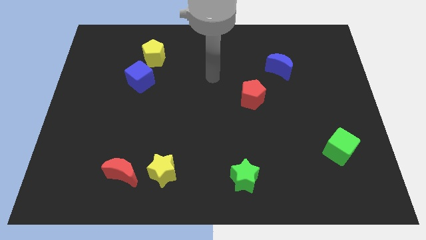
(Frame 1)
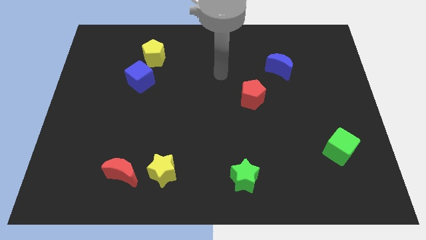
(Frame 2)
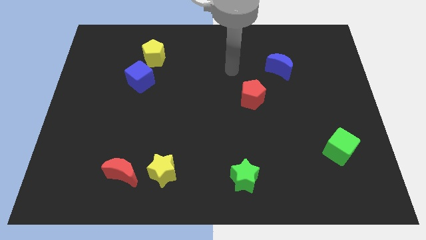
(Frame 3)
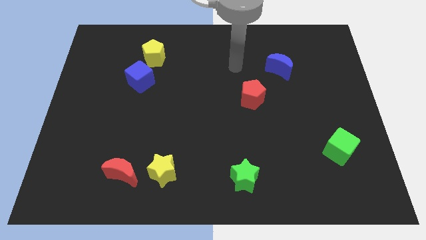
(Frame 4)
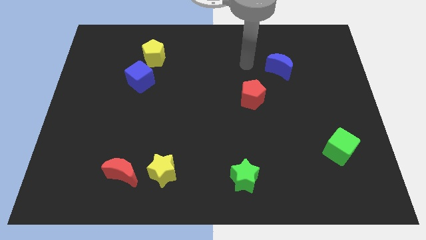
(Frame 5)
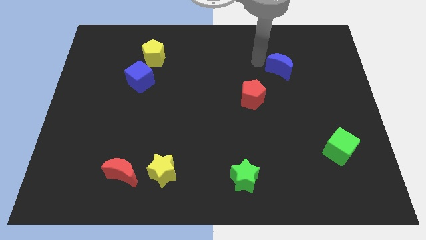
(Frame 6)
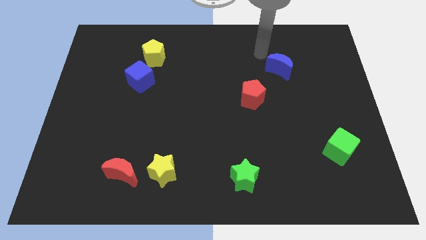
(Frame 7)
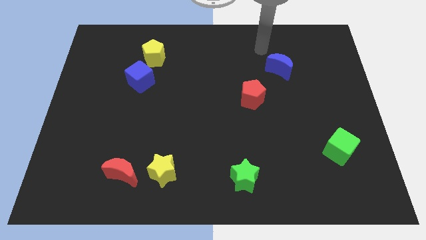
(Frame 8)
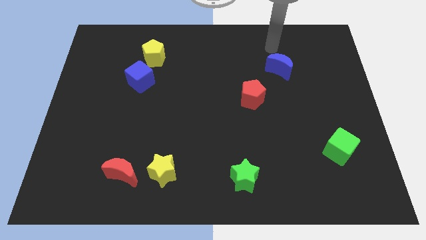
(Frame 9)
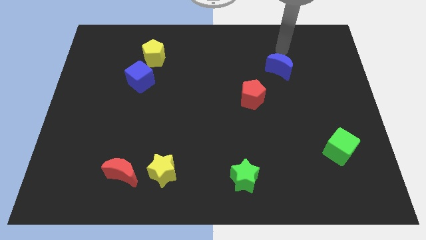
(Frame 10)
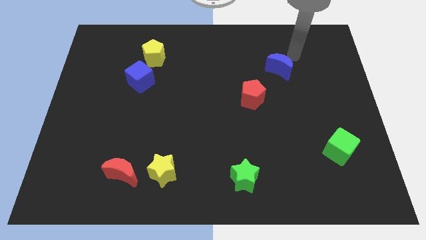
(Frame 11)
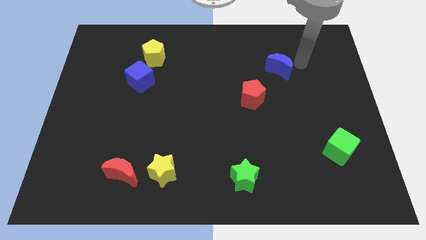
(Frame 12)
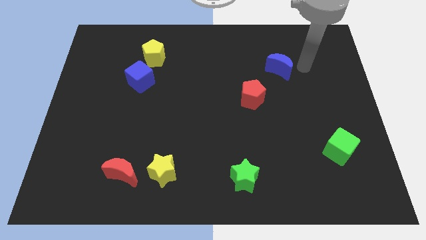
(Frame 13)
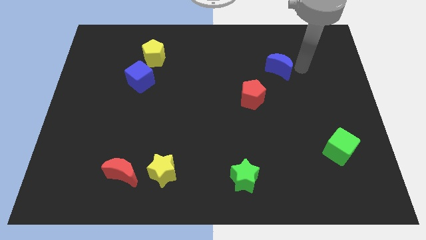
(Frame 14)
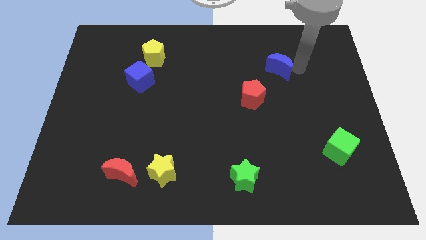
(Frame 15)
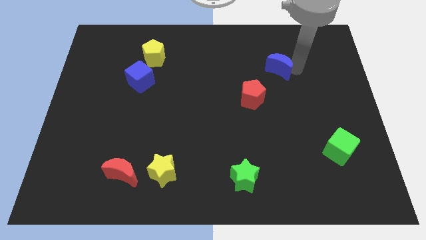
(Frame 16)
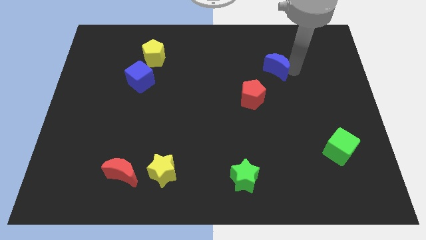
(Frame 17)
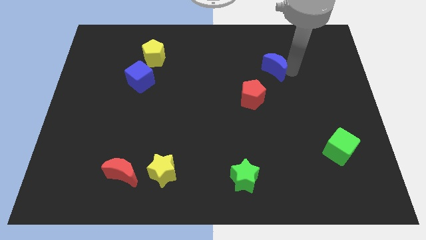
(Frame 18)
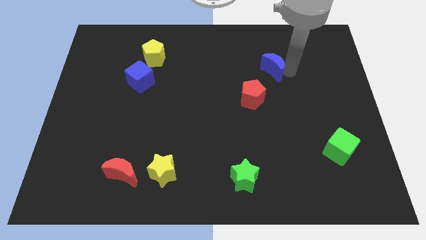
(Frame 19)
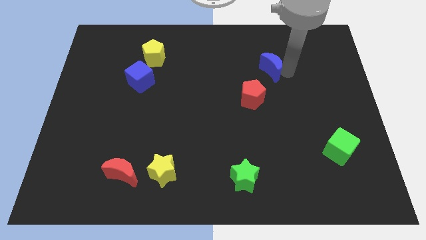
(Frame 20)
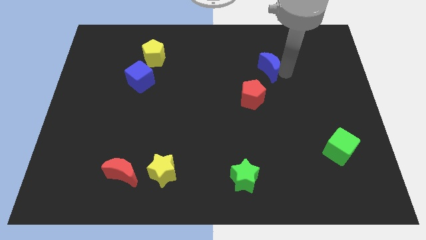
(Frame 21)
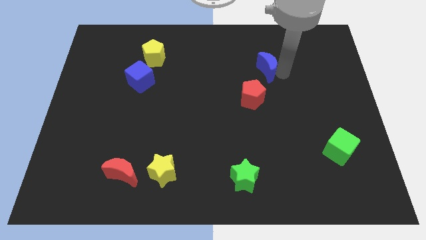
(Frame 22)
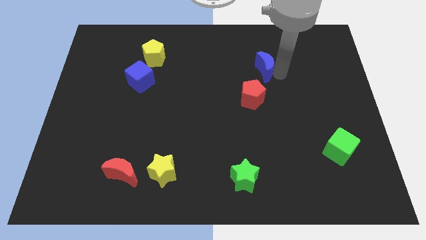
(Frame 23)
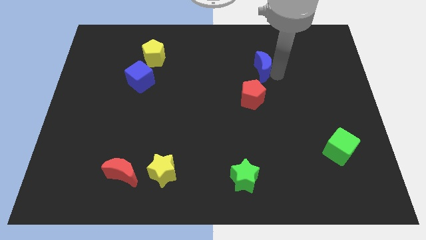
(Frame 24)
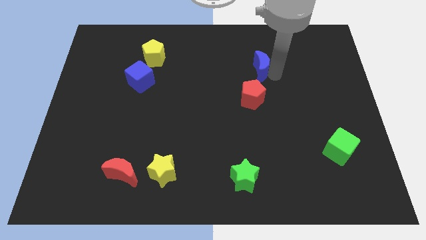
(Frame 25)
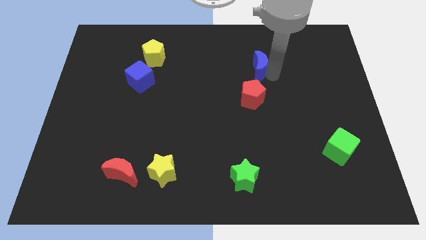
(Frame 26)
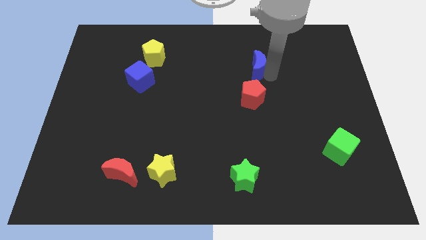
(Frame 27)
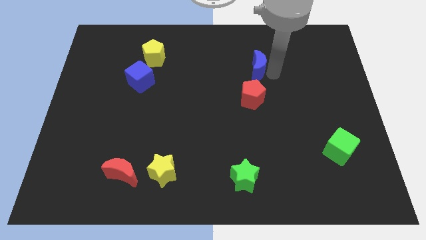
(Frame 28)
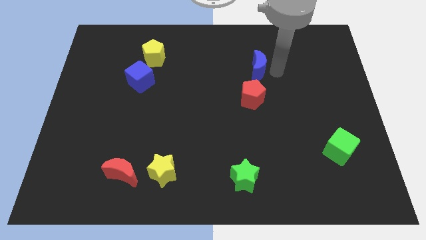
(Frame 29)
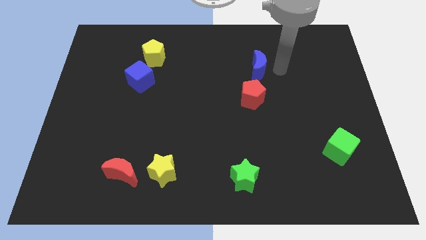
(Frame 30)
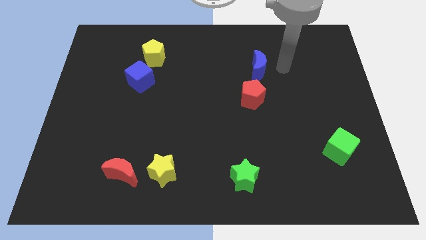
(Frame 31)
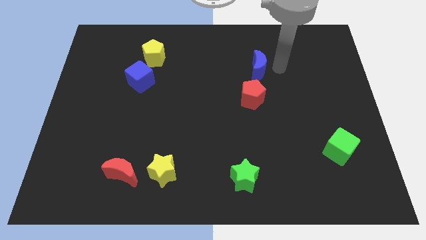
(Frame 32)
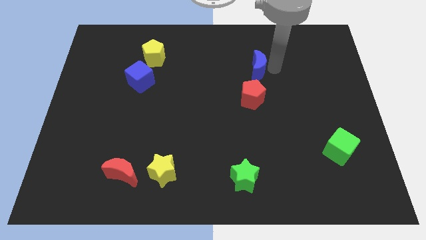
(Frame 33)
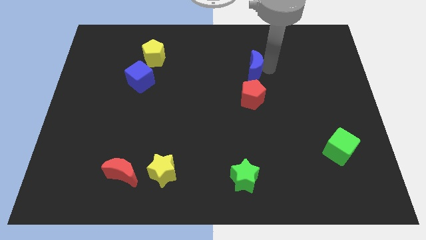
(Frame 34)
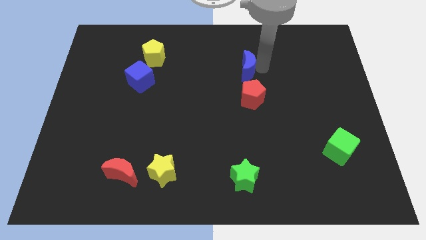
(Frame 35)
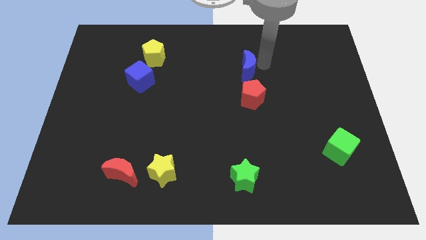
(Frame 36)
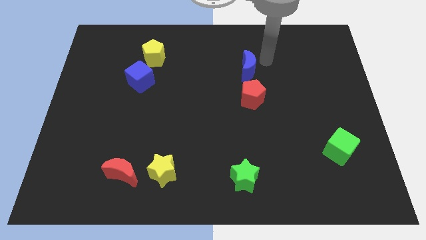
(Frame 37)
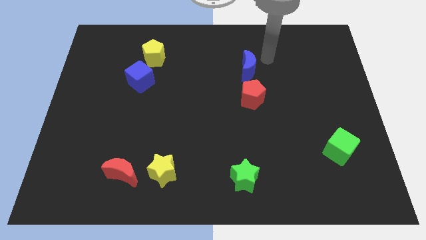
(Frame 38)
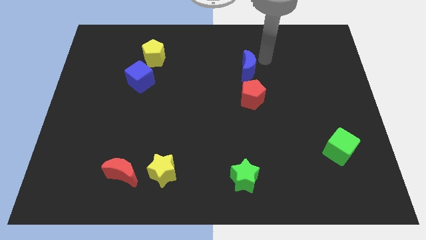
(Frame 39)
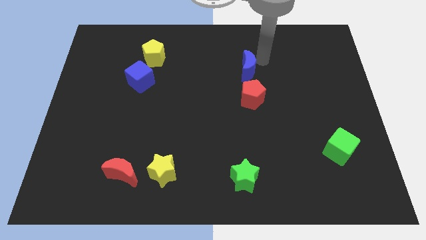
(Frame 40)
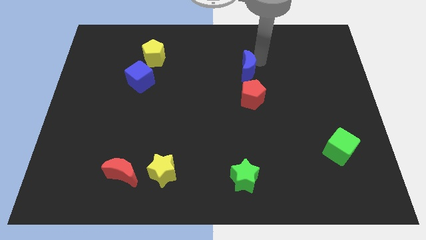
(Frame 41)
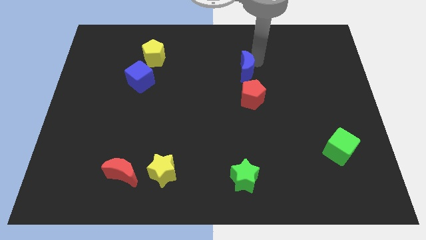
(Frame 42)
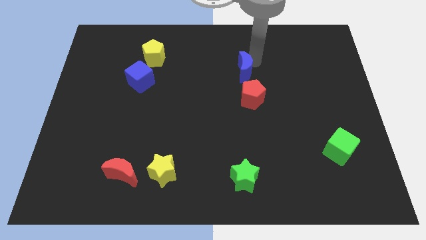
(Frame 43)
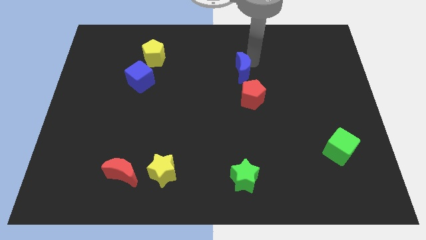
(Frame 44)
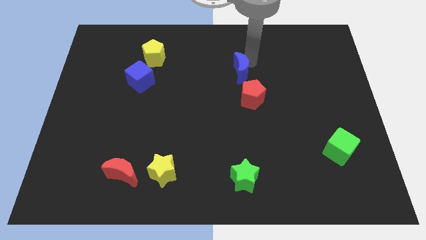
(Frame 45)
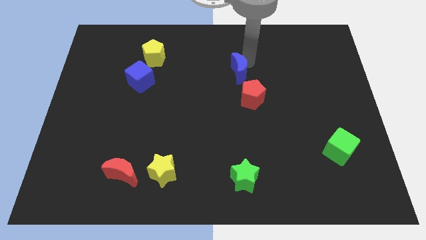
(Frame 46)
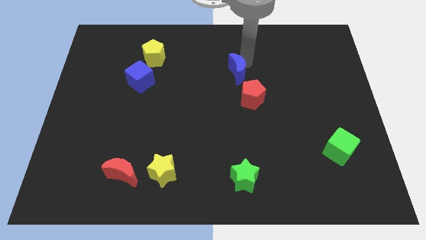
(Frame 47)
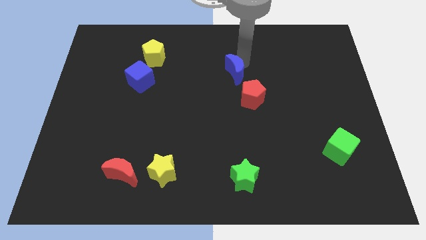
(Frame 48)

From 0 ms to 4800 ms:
move the blue moon a bit down and then to the left

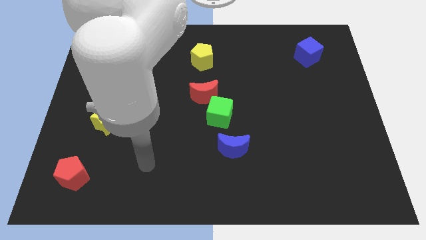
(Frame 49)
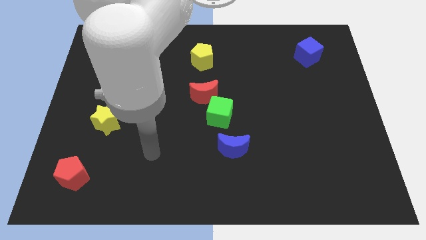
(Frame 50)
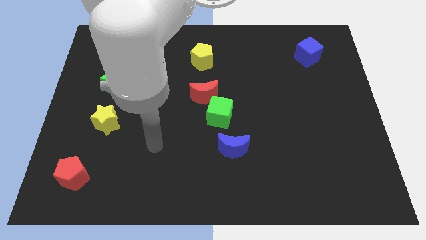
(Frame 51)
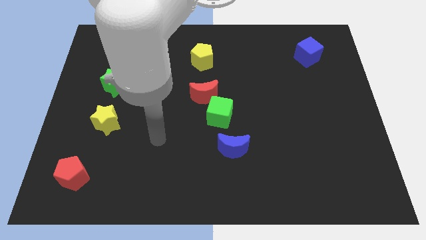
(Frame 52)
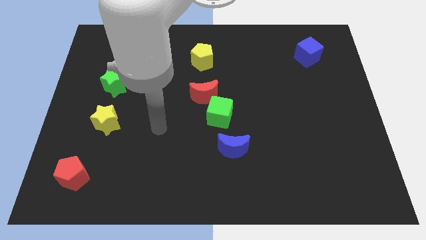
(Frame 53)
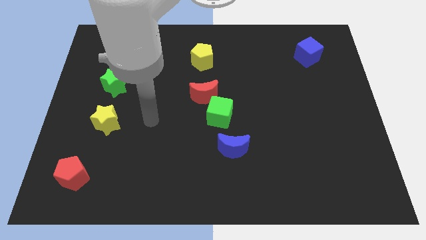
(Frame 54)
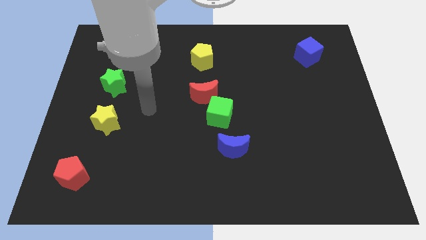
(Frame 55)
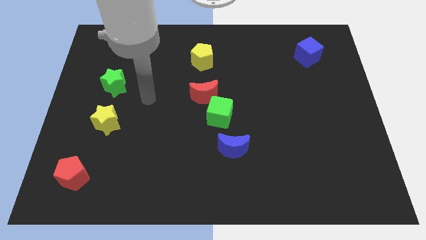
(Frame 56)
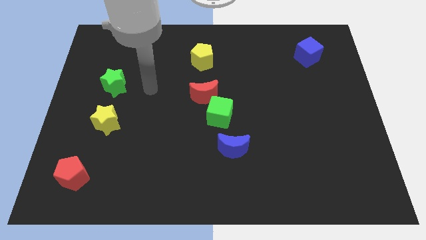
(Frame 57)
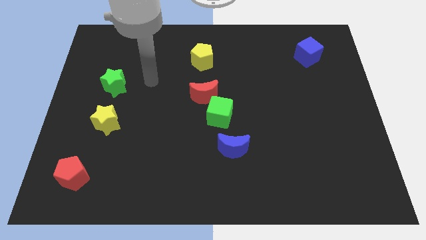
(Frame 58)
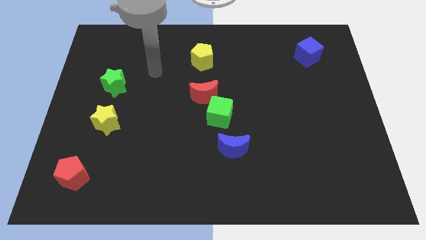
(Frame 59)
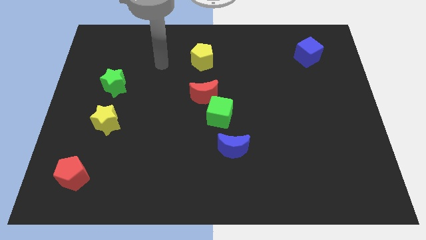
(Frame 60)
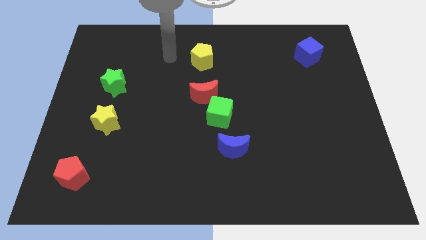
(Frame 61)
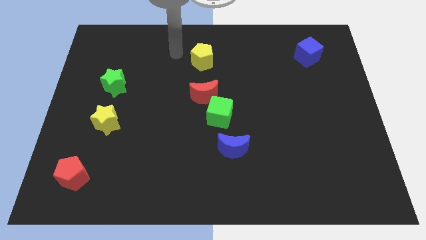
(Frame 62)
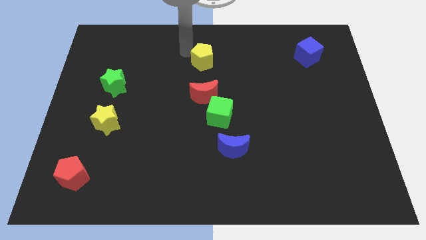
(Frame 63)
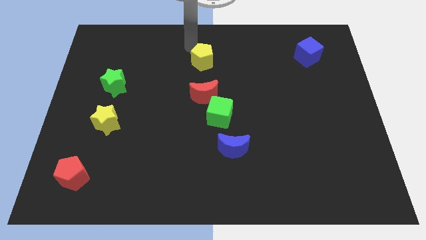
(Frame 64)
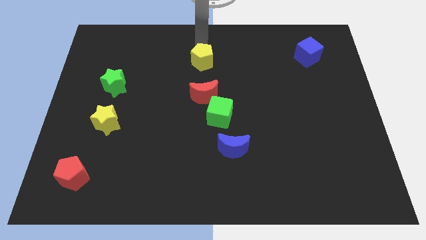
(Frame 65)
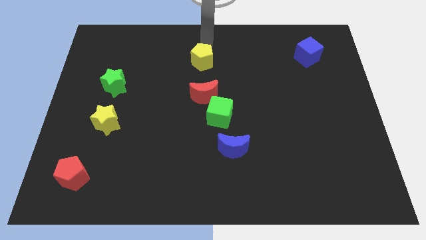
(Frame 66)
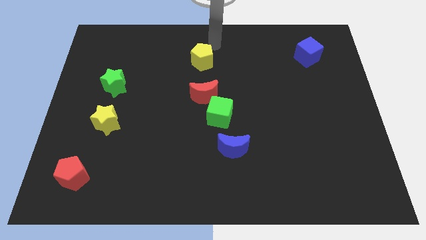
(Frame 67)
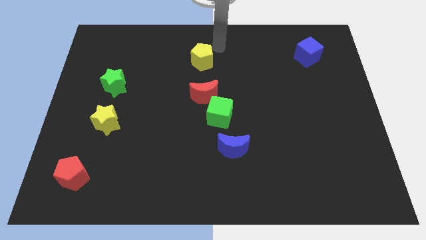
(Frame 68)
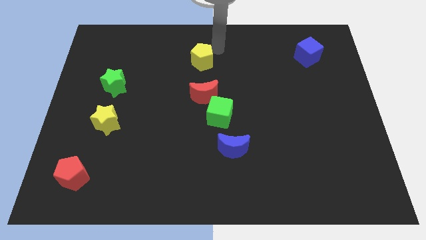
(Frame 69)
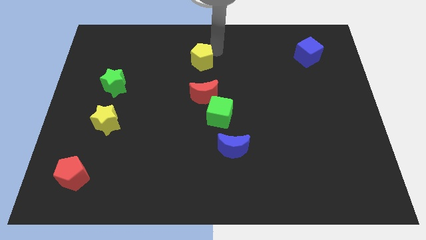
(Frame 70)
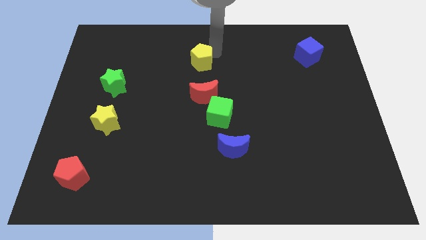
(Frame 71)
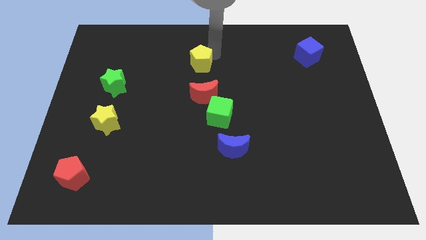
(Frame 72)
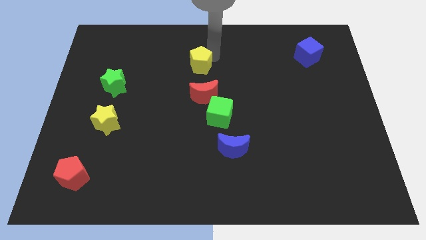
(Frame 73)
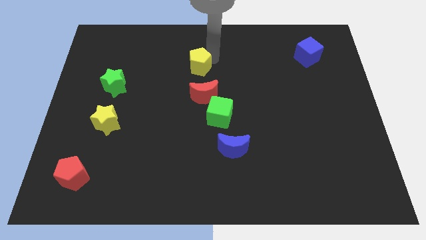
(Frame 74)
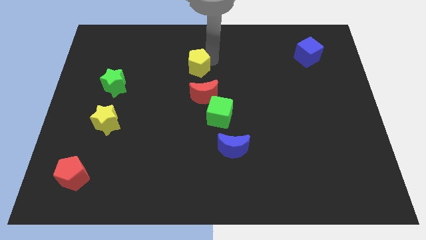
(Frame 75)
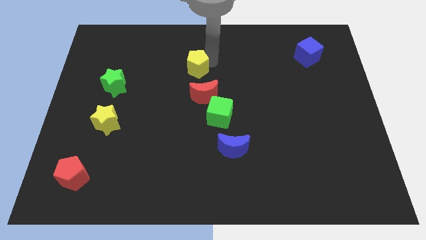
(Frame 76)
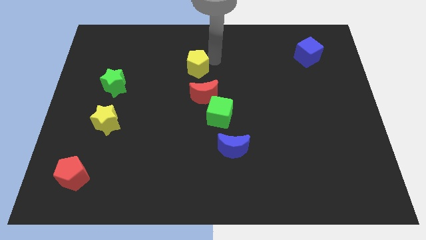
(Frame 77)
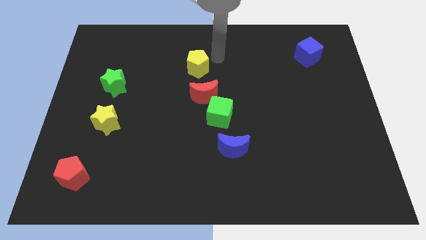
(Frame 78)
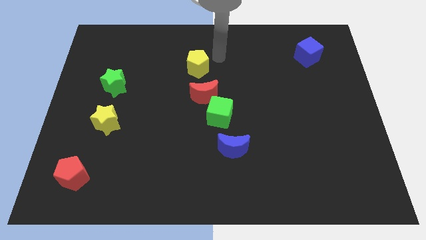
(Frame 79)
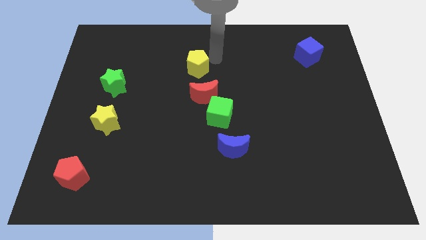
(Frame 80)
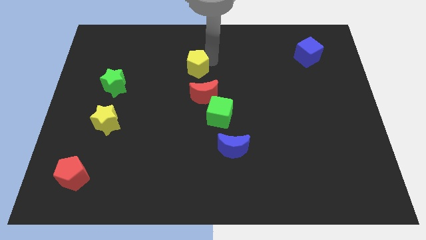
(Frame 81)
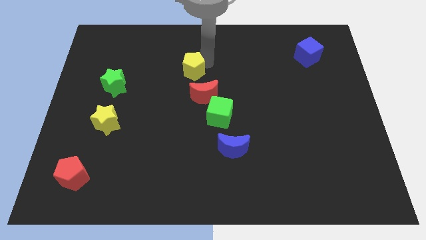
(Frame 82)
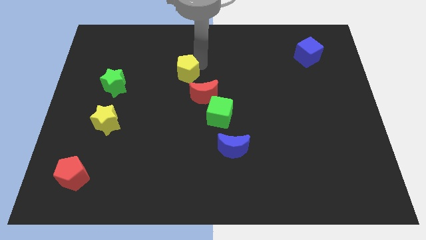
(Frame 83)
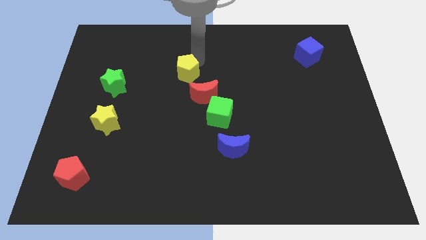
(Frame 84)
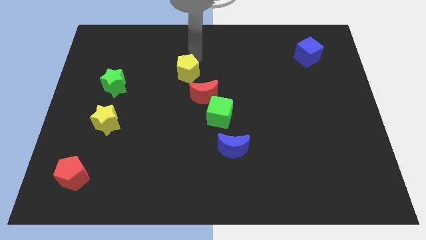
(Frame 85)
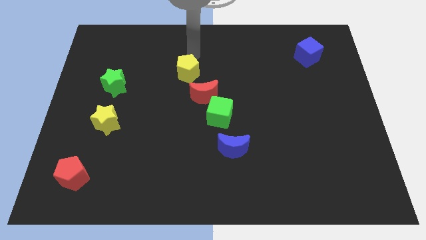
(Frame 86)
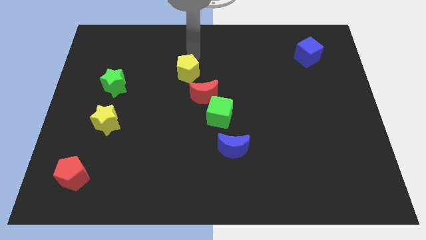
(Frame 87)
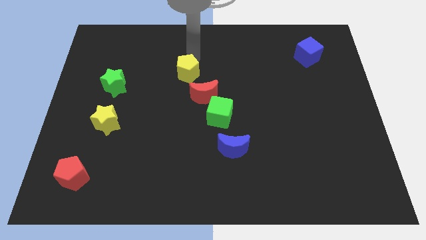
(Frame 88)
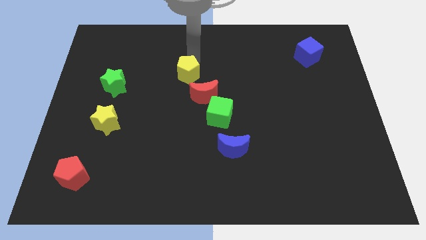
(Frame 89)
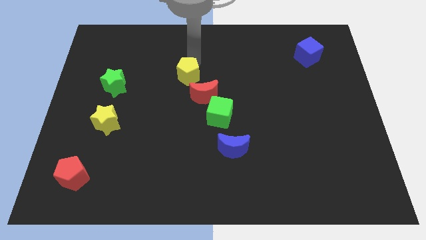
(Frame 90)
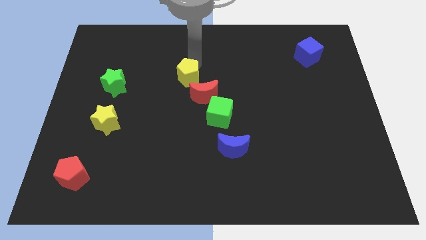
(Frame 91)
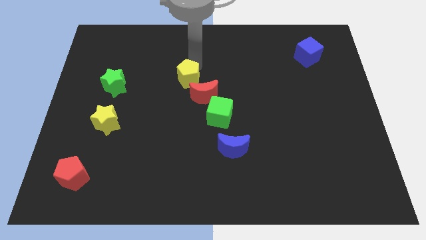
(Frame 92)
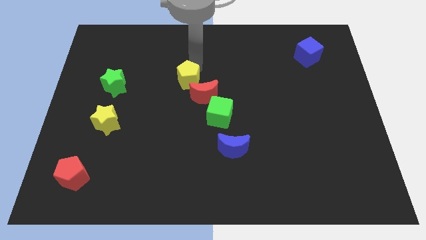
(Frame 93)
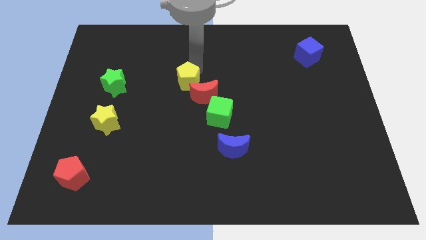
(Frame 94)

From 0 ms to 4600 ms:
push the yellow pentagon a bit down
